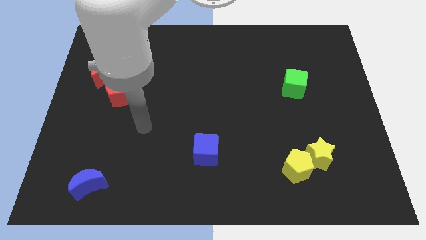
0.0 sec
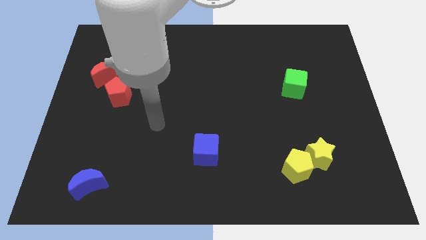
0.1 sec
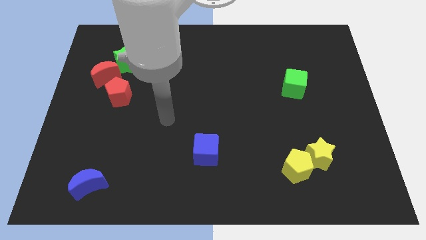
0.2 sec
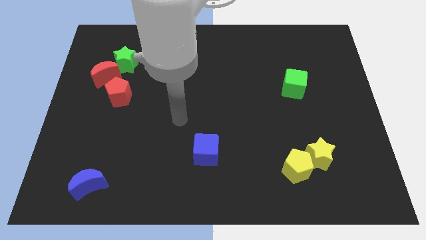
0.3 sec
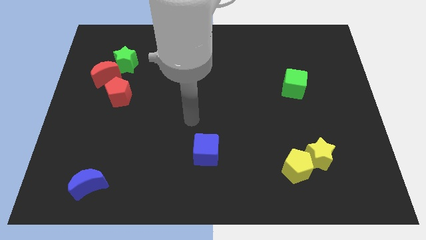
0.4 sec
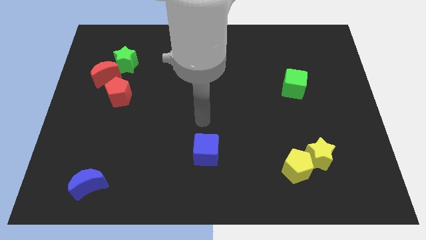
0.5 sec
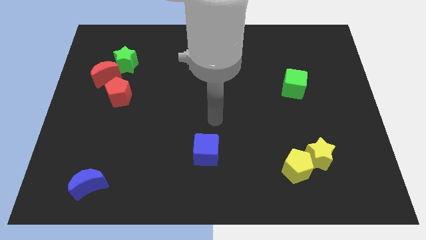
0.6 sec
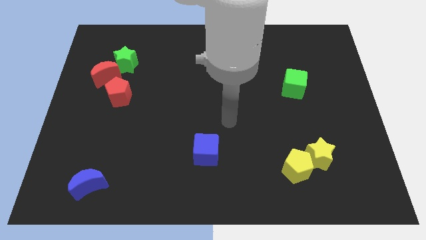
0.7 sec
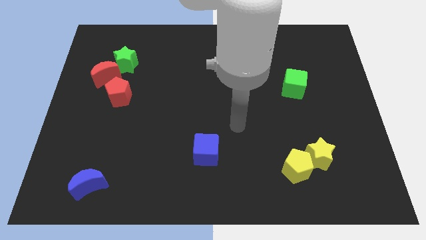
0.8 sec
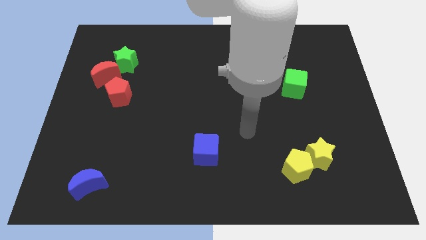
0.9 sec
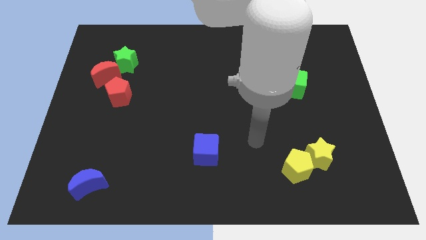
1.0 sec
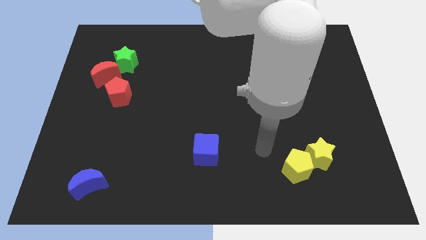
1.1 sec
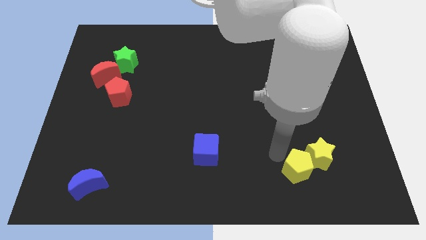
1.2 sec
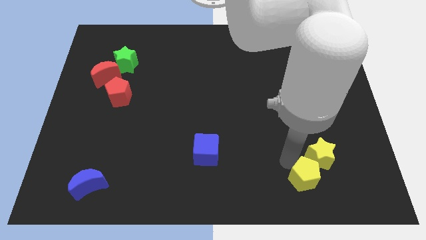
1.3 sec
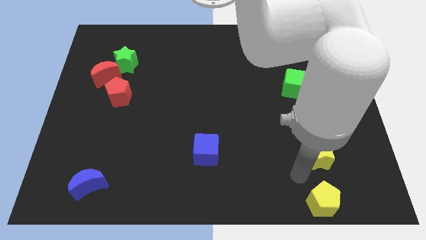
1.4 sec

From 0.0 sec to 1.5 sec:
separate the yellow star from the yellow pentagon

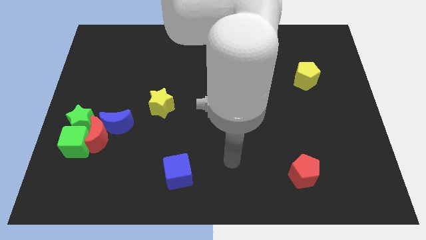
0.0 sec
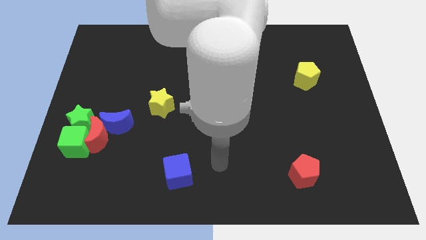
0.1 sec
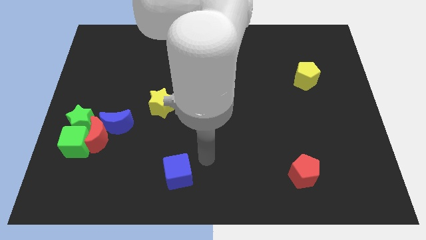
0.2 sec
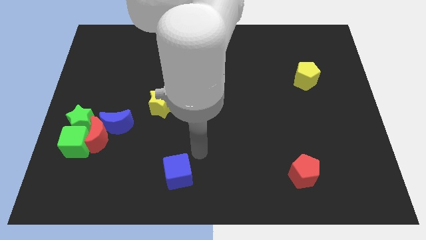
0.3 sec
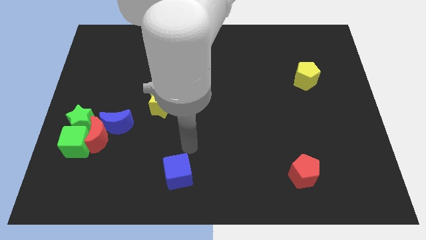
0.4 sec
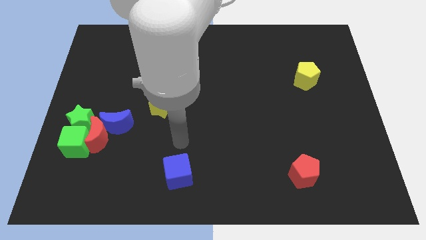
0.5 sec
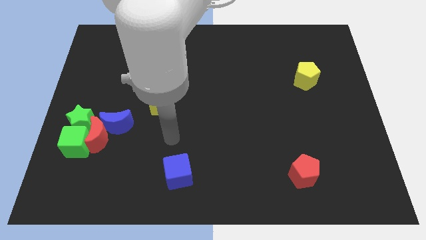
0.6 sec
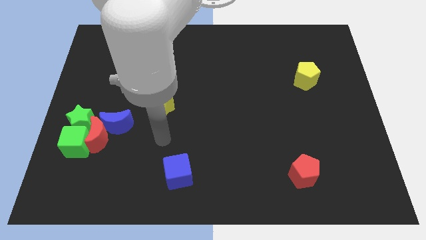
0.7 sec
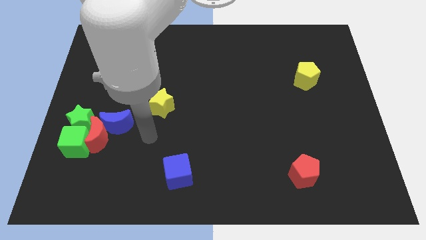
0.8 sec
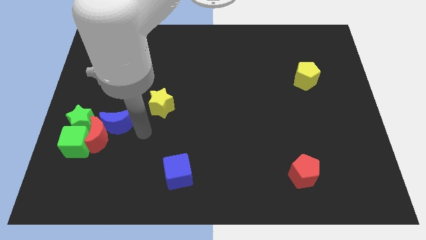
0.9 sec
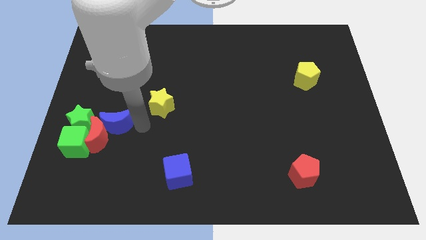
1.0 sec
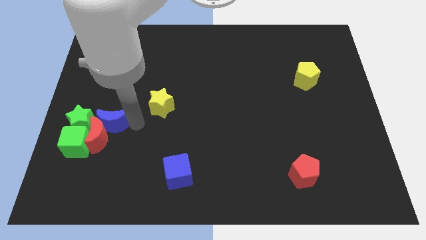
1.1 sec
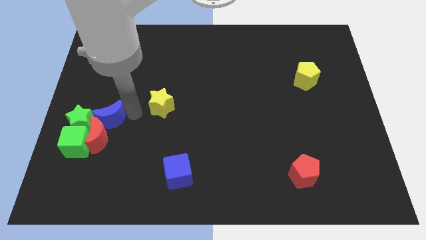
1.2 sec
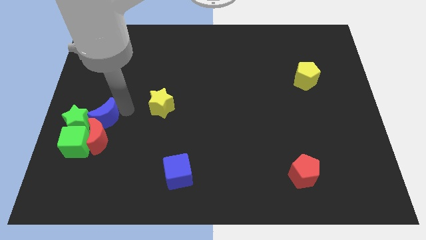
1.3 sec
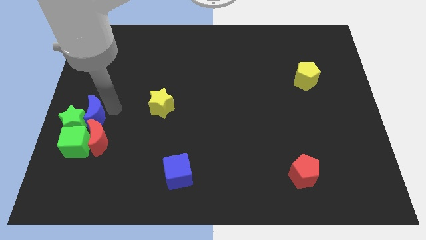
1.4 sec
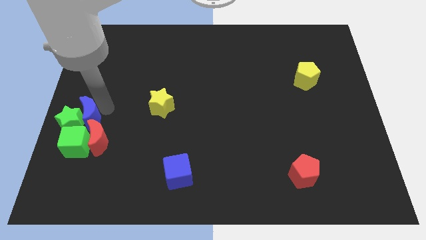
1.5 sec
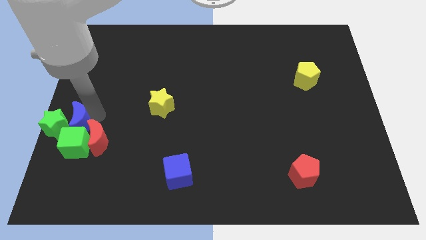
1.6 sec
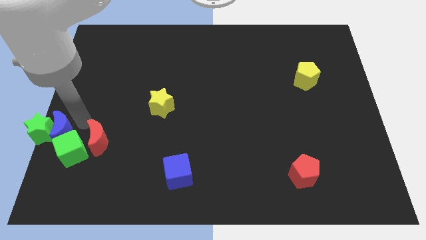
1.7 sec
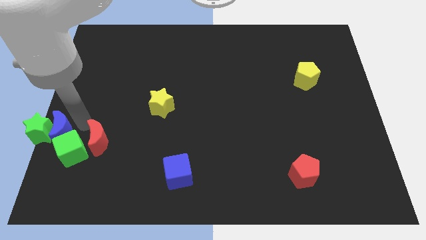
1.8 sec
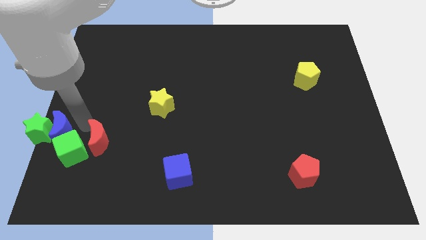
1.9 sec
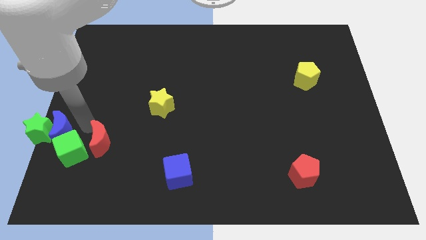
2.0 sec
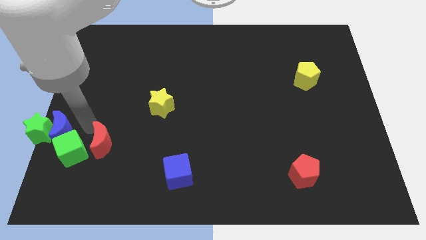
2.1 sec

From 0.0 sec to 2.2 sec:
pull the red moon apart from the group

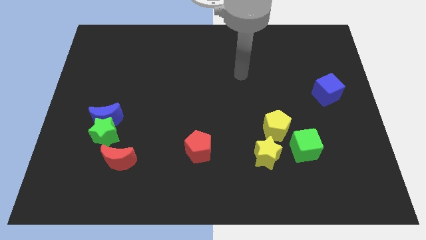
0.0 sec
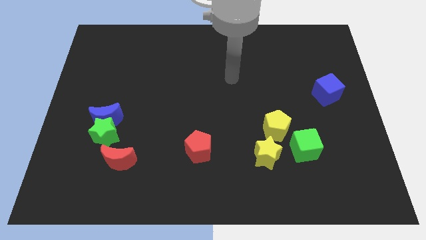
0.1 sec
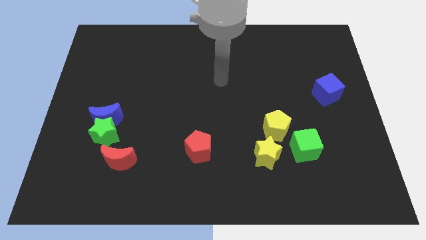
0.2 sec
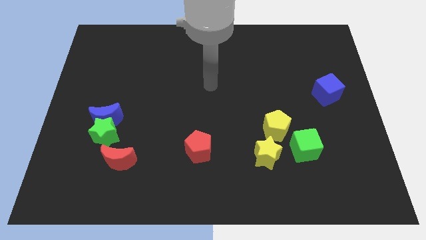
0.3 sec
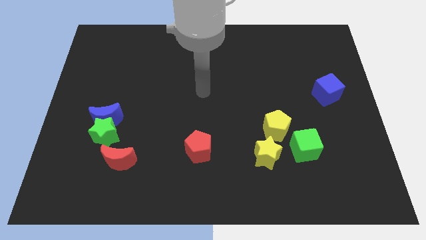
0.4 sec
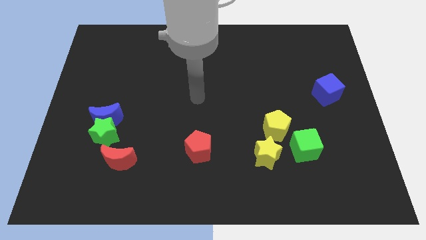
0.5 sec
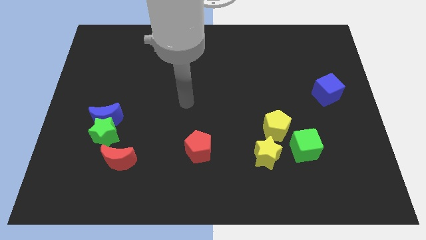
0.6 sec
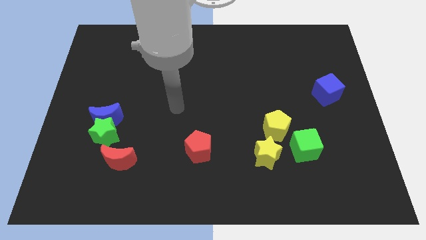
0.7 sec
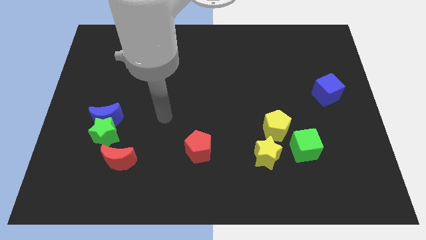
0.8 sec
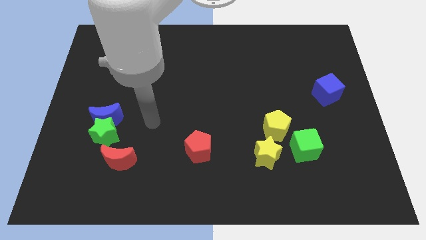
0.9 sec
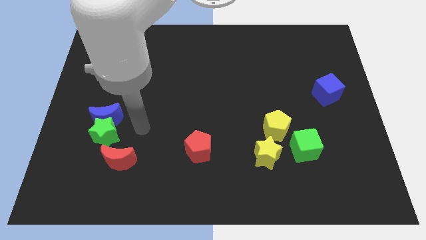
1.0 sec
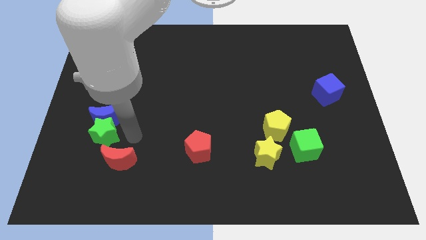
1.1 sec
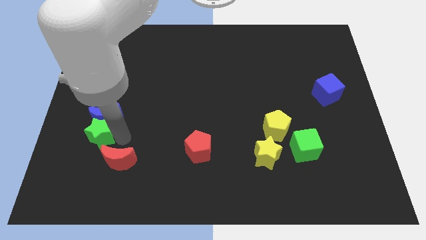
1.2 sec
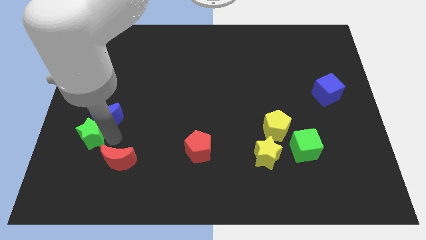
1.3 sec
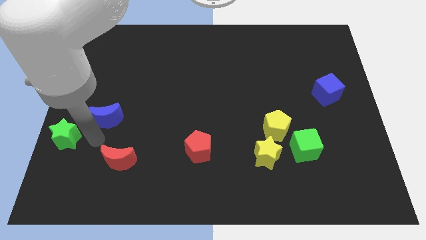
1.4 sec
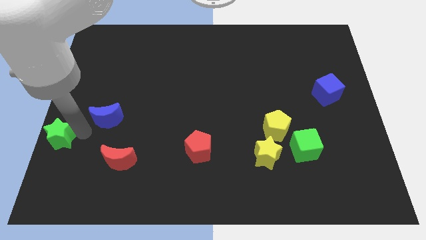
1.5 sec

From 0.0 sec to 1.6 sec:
pull the blue moon apart from the green star

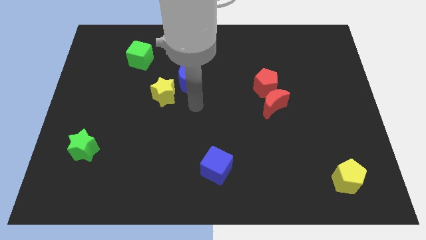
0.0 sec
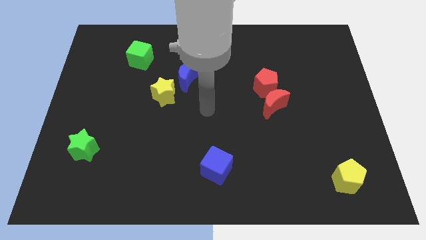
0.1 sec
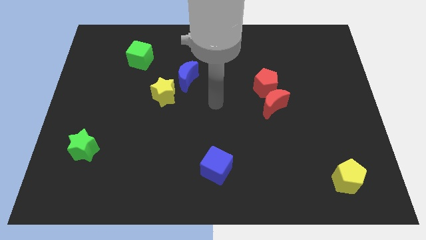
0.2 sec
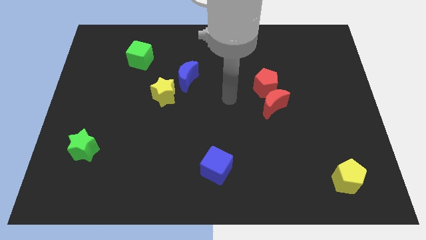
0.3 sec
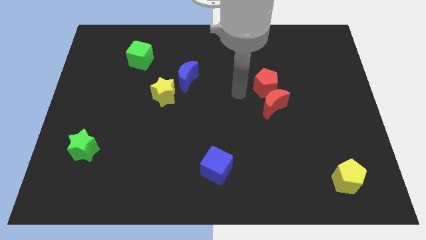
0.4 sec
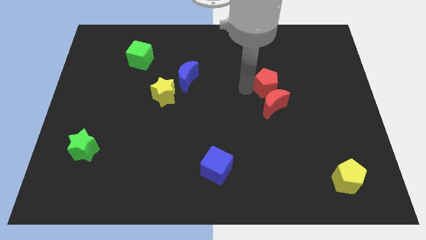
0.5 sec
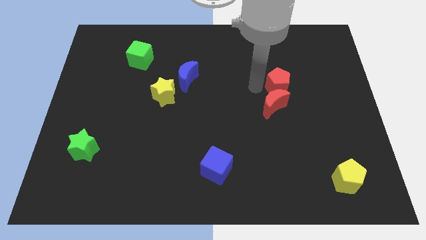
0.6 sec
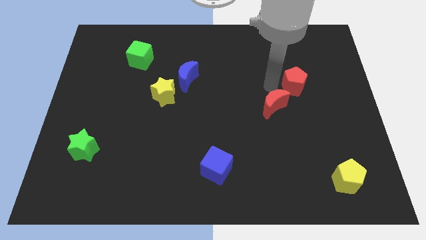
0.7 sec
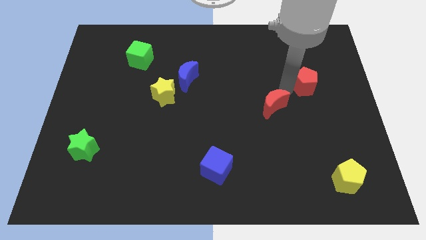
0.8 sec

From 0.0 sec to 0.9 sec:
separate the red moon from the red pentagon

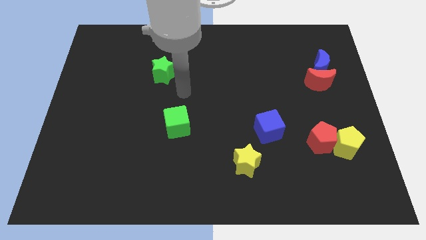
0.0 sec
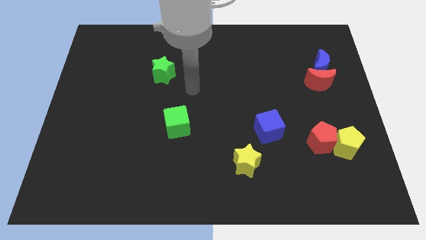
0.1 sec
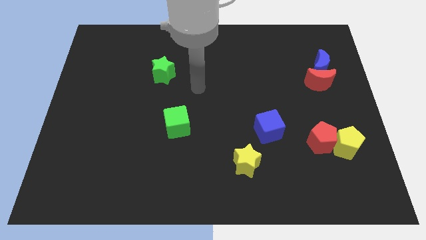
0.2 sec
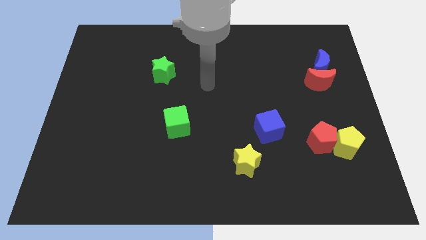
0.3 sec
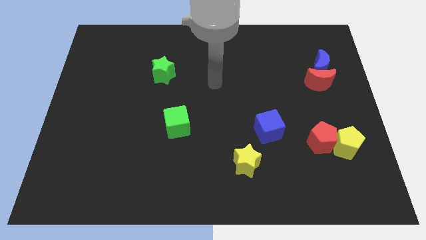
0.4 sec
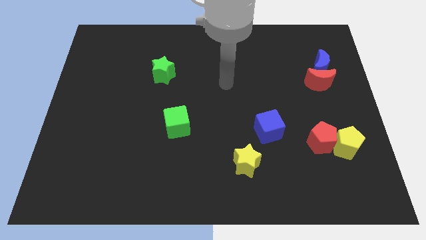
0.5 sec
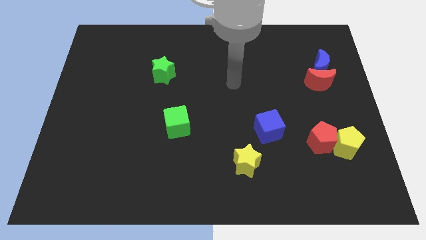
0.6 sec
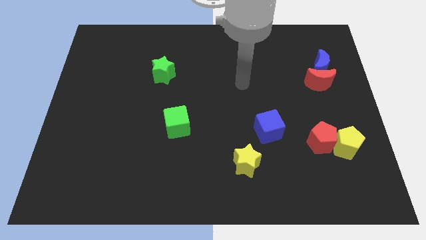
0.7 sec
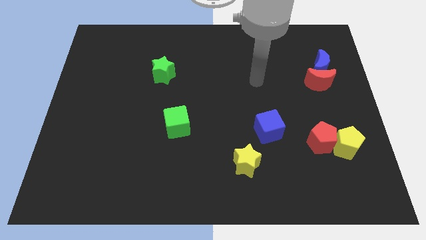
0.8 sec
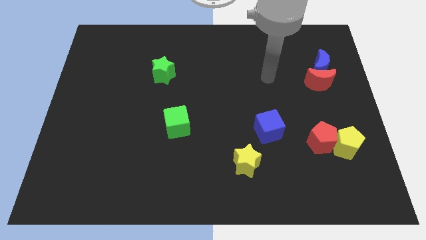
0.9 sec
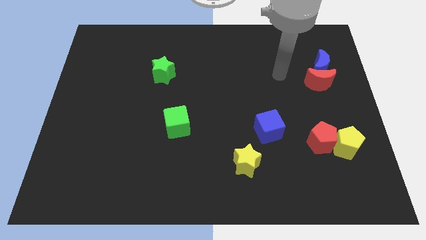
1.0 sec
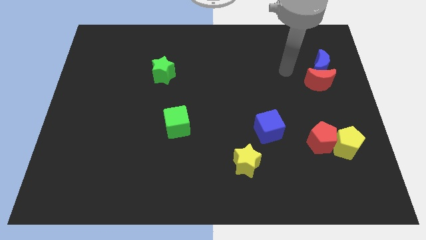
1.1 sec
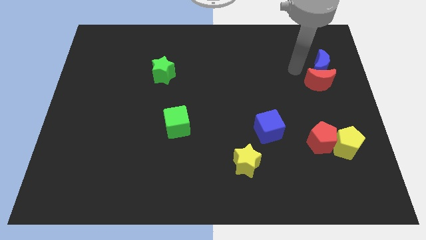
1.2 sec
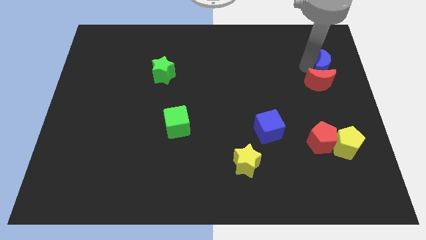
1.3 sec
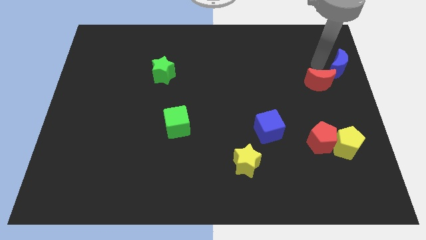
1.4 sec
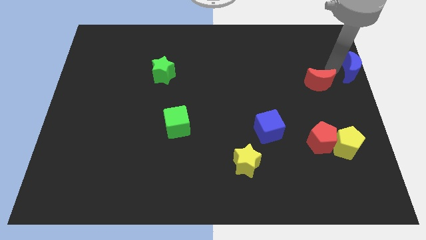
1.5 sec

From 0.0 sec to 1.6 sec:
separate the red moon from the blue moon

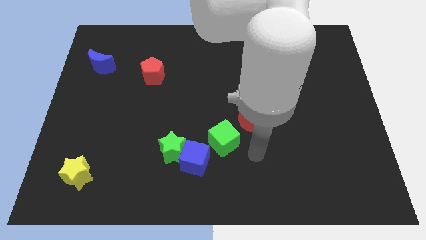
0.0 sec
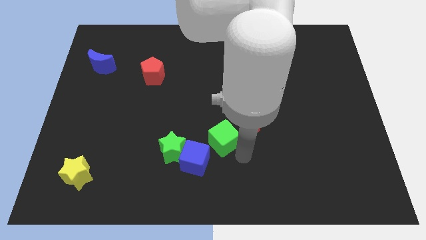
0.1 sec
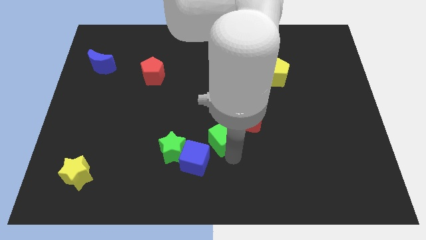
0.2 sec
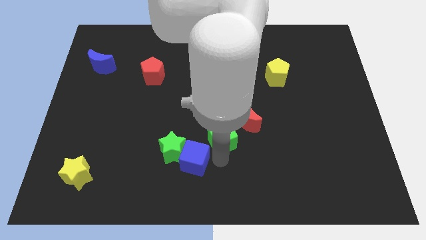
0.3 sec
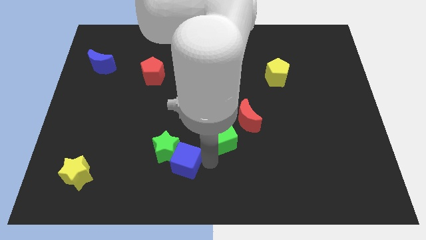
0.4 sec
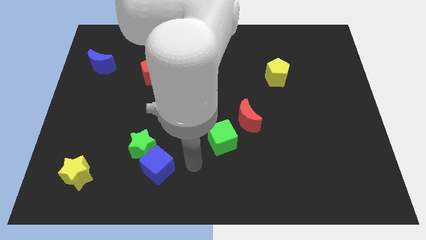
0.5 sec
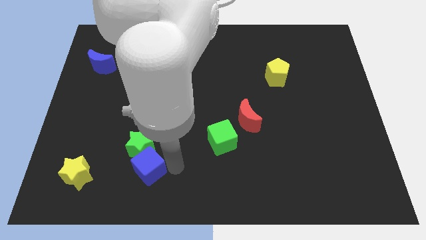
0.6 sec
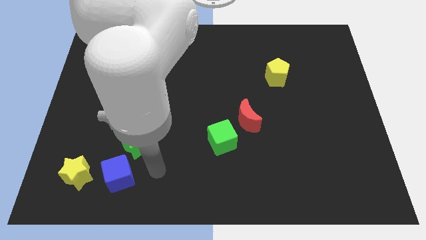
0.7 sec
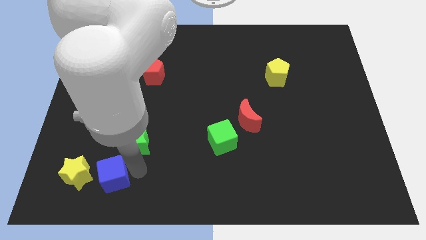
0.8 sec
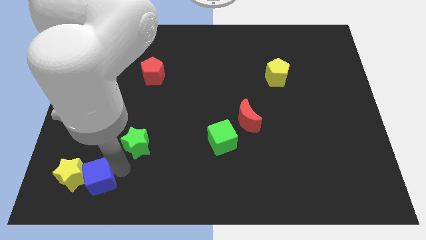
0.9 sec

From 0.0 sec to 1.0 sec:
move the green star away from the blue cube

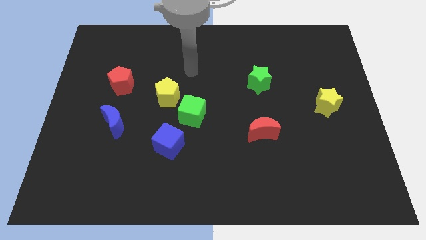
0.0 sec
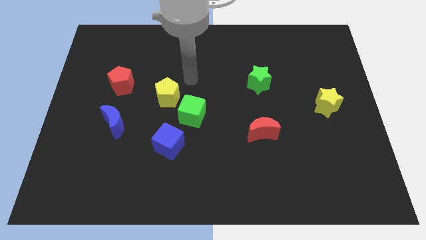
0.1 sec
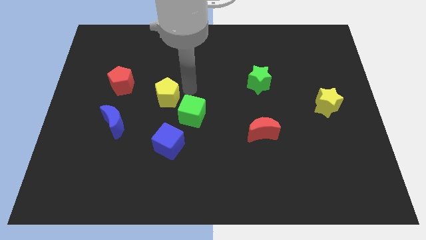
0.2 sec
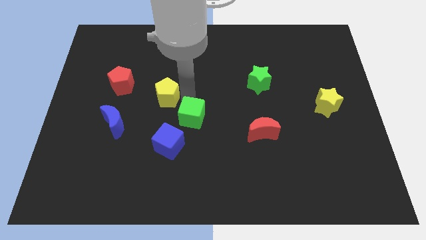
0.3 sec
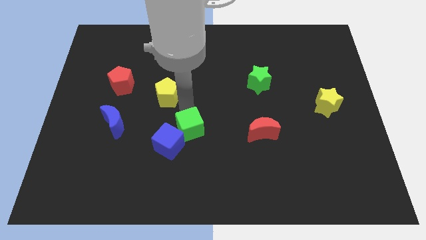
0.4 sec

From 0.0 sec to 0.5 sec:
separate the yellow pentagon from the green cube

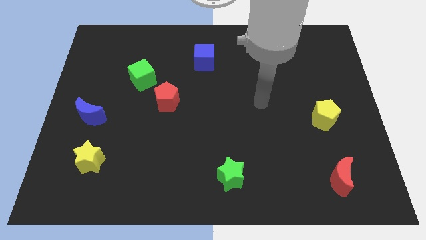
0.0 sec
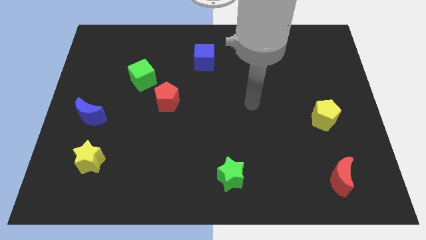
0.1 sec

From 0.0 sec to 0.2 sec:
pull the red pentagon apart from the green cube
